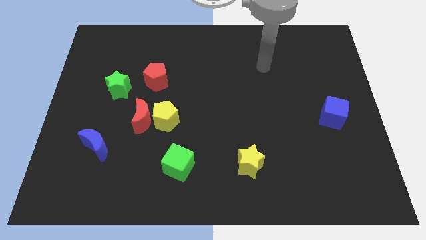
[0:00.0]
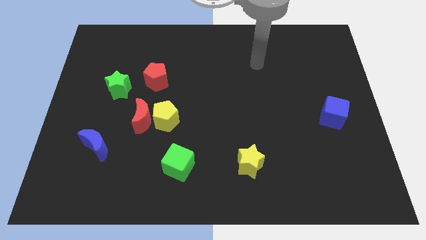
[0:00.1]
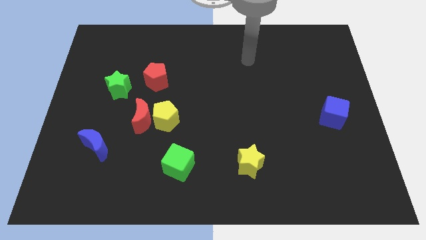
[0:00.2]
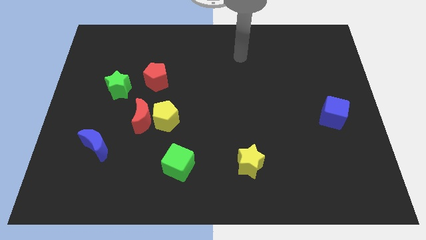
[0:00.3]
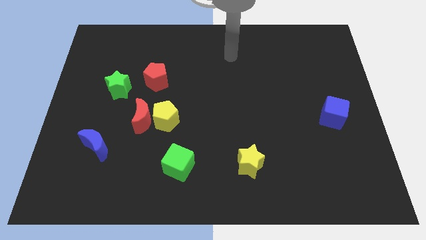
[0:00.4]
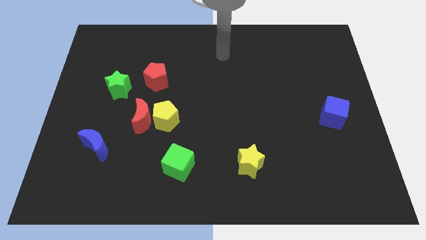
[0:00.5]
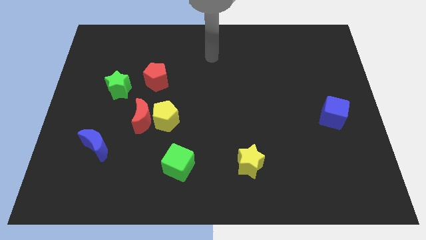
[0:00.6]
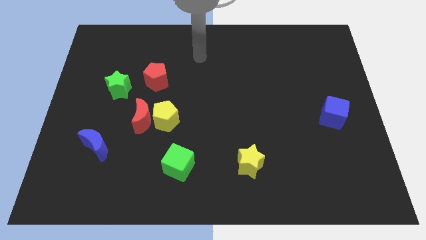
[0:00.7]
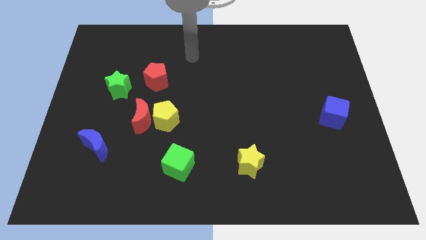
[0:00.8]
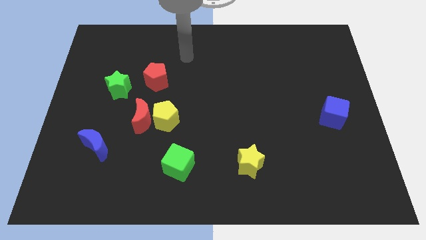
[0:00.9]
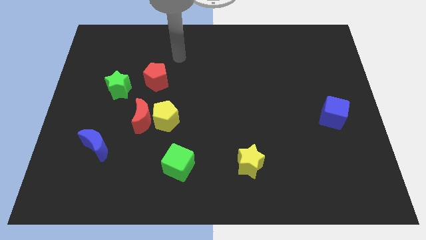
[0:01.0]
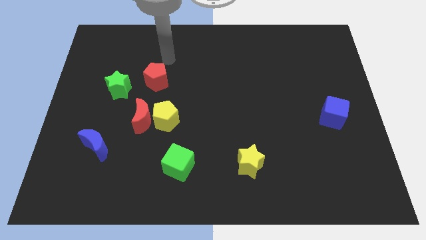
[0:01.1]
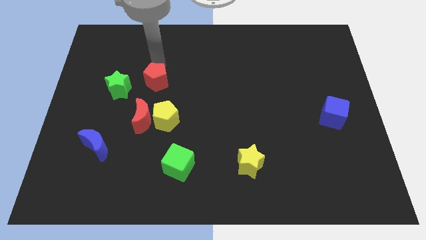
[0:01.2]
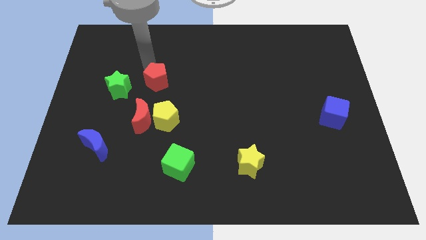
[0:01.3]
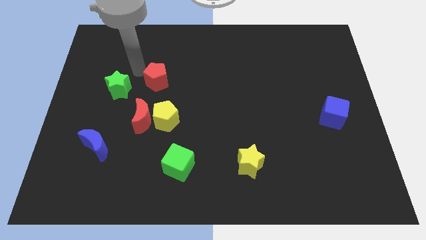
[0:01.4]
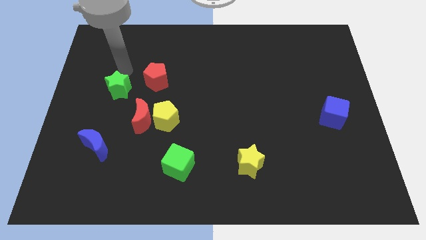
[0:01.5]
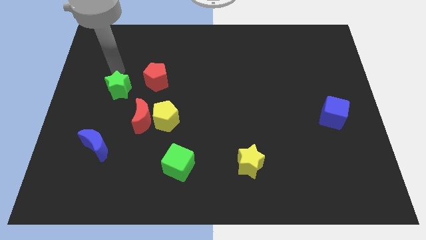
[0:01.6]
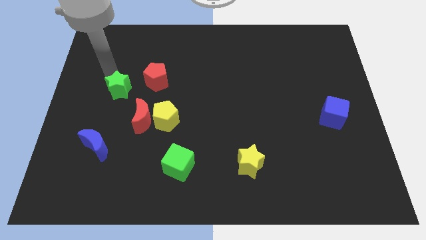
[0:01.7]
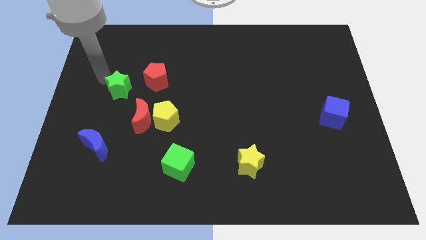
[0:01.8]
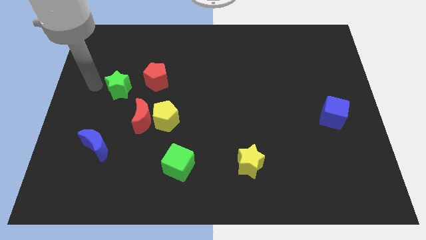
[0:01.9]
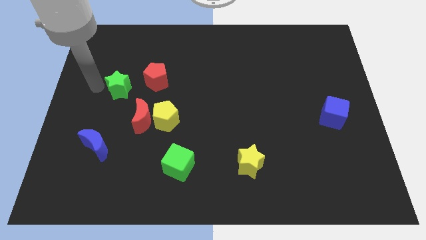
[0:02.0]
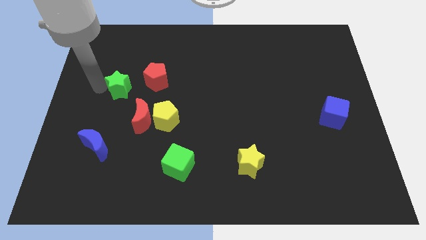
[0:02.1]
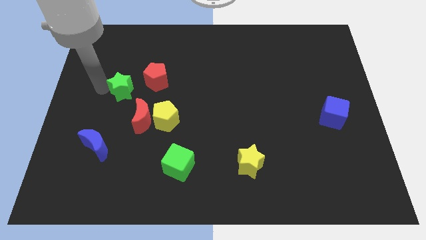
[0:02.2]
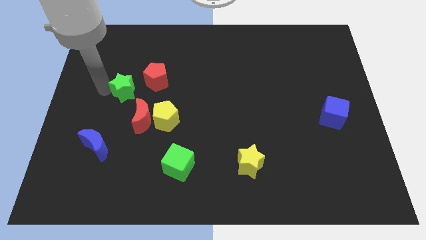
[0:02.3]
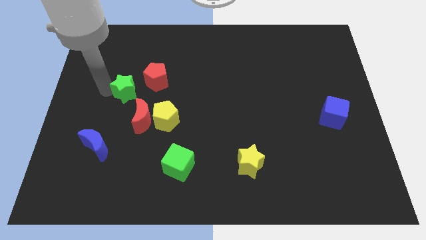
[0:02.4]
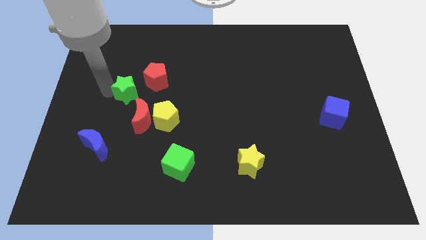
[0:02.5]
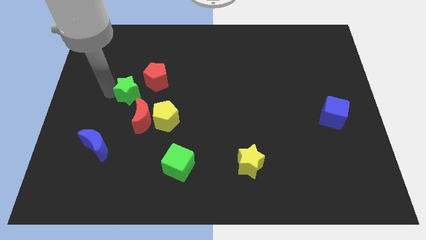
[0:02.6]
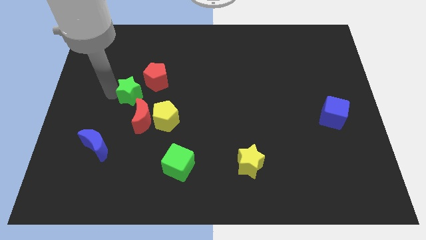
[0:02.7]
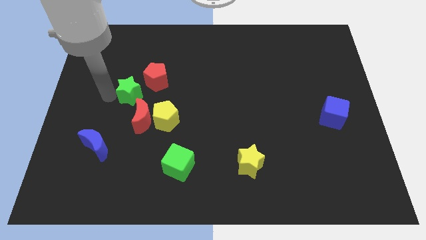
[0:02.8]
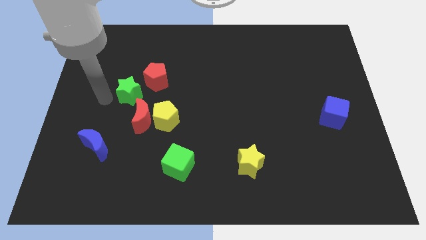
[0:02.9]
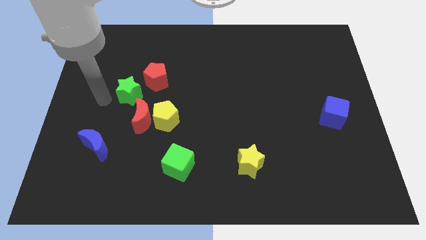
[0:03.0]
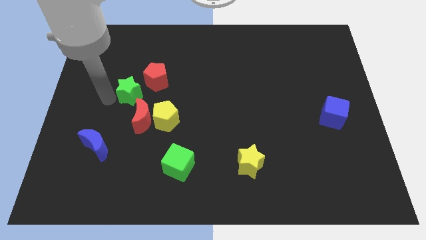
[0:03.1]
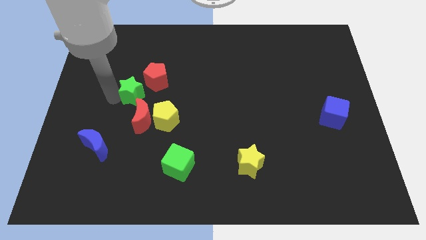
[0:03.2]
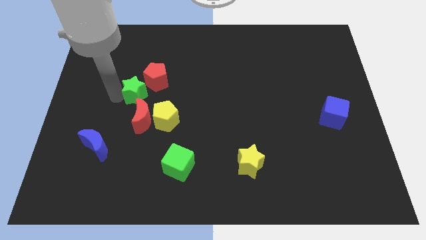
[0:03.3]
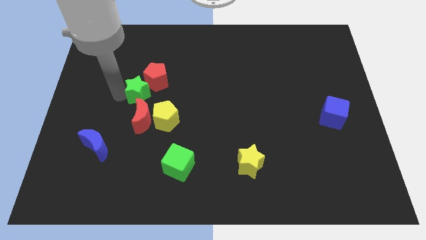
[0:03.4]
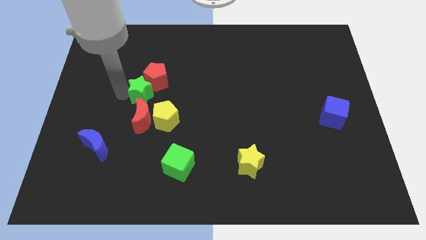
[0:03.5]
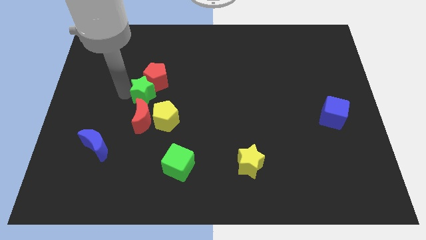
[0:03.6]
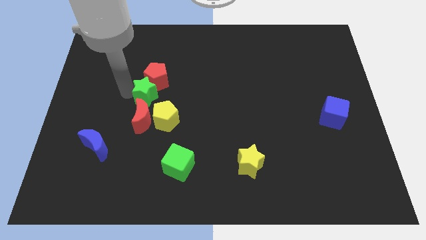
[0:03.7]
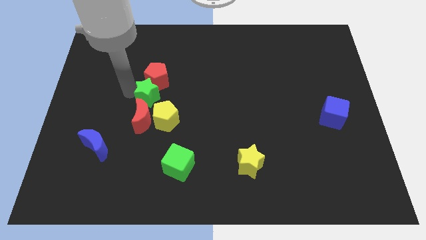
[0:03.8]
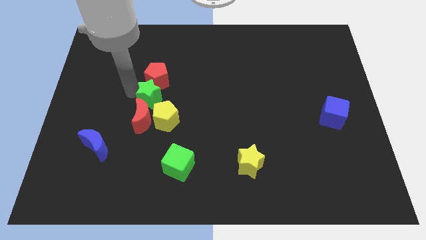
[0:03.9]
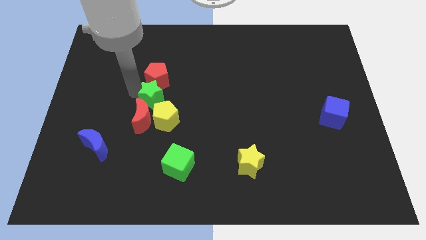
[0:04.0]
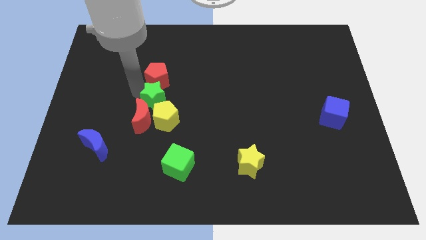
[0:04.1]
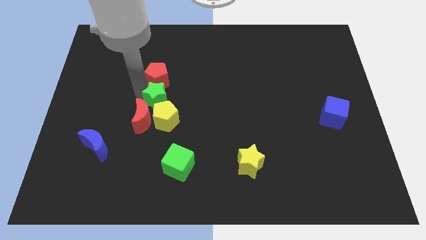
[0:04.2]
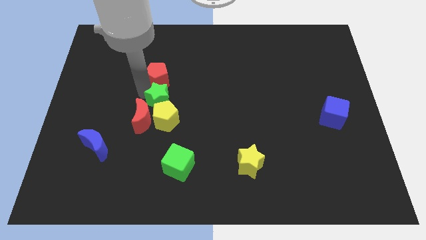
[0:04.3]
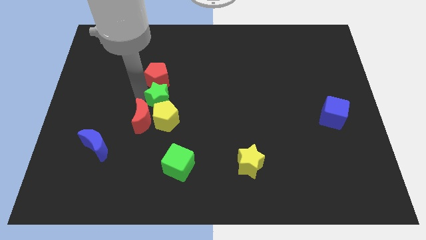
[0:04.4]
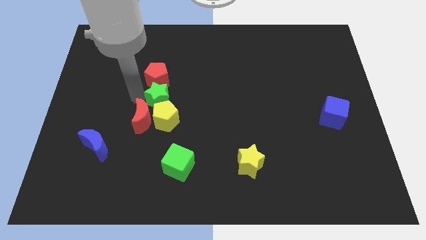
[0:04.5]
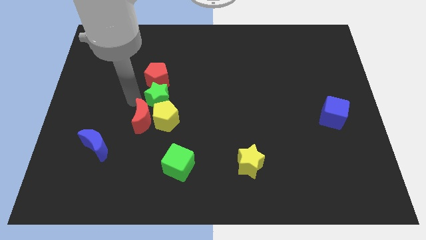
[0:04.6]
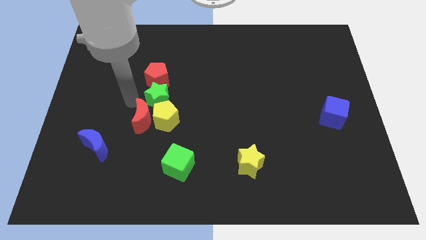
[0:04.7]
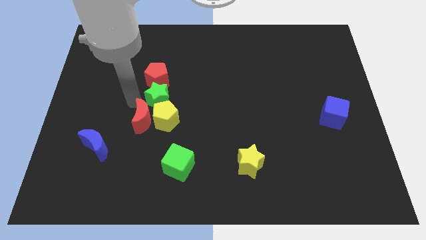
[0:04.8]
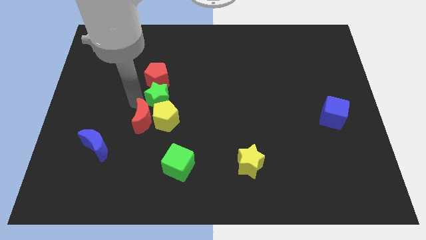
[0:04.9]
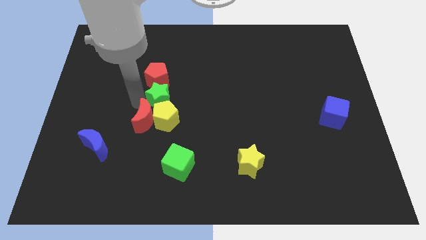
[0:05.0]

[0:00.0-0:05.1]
push the green star to the center
